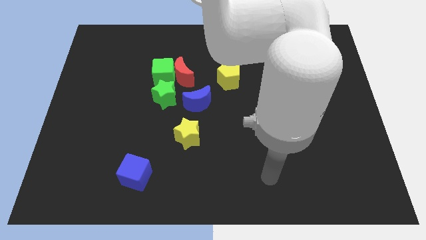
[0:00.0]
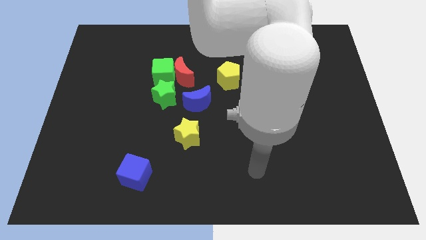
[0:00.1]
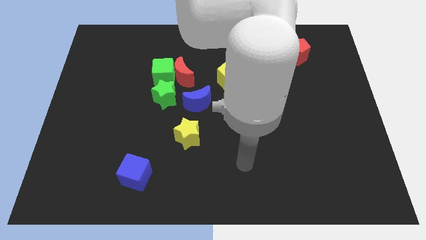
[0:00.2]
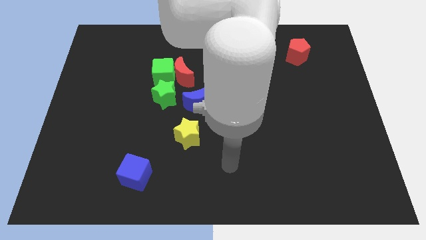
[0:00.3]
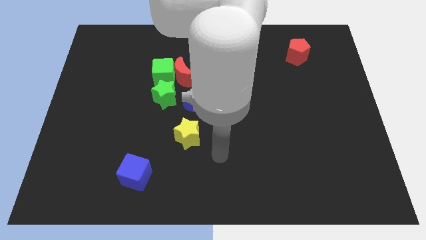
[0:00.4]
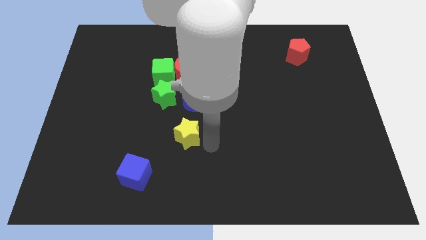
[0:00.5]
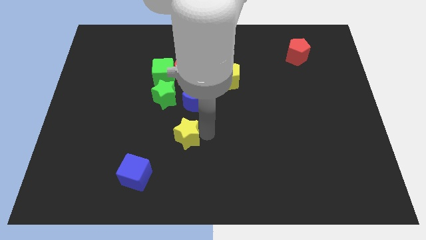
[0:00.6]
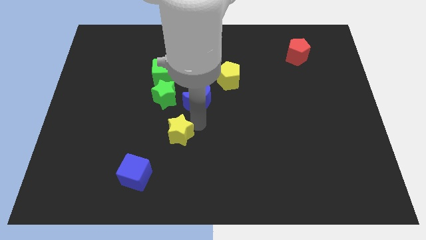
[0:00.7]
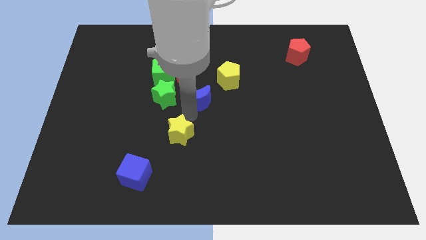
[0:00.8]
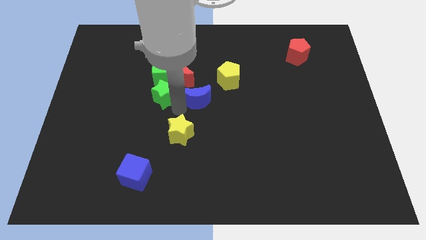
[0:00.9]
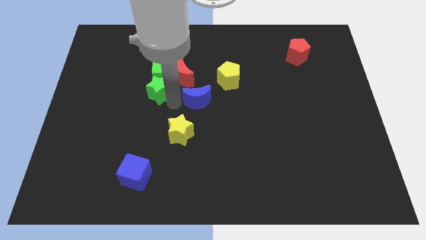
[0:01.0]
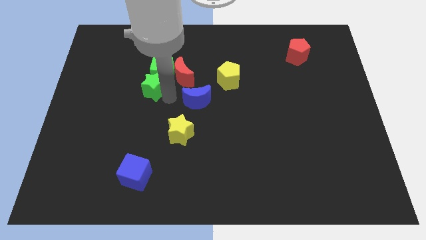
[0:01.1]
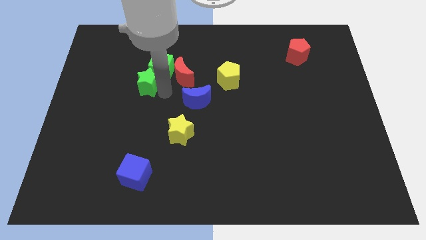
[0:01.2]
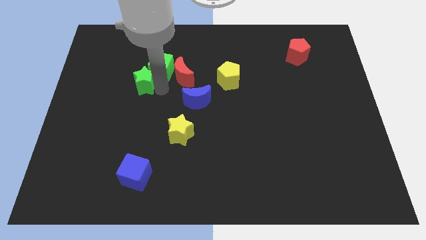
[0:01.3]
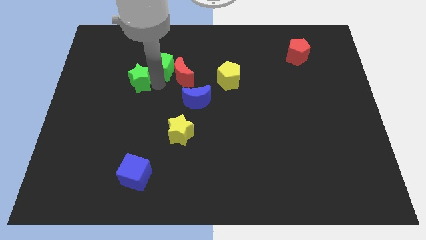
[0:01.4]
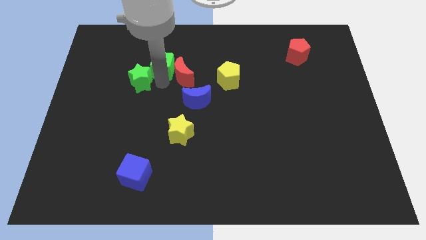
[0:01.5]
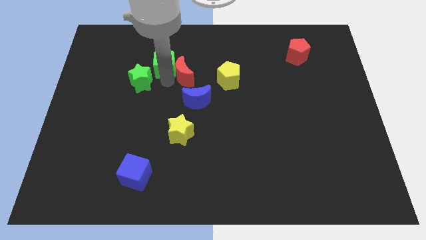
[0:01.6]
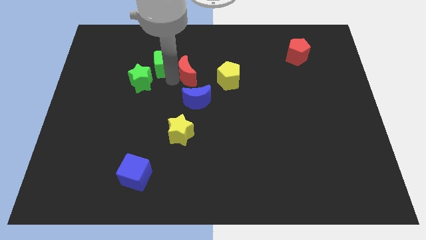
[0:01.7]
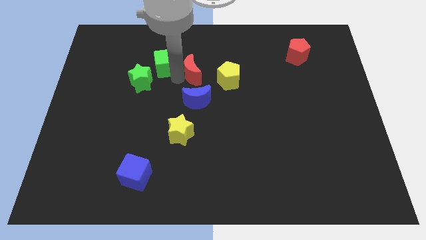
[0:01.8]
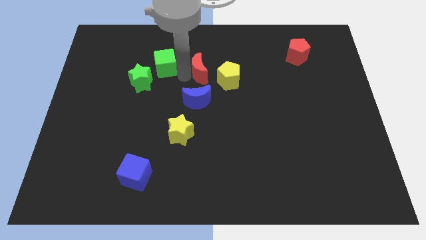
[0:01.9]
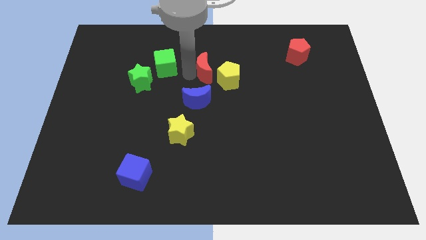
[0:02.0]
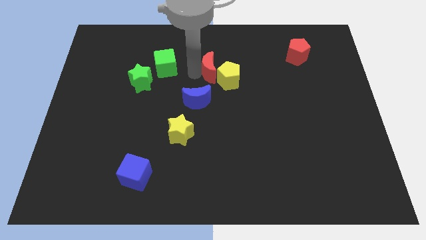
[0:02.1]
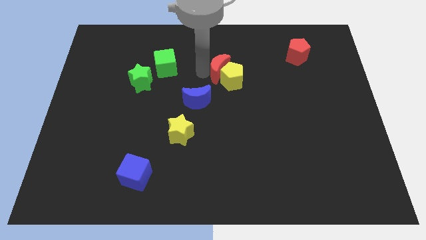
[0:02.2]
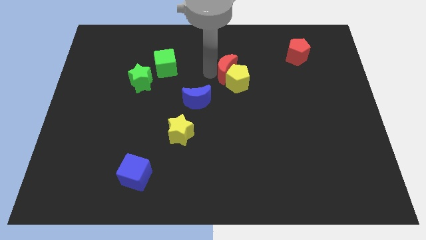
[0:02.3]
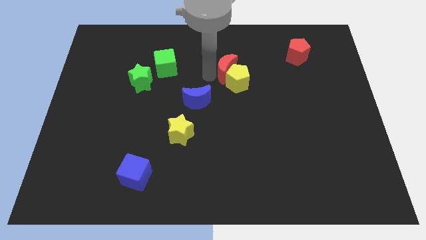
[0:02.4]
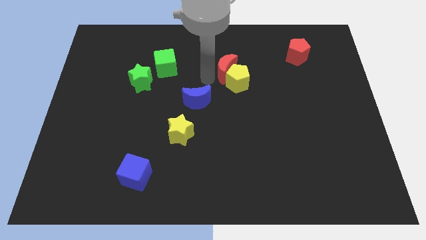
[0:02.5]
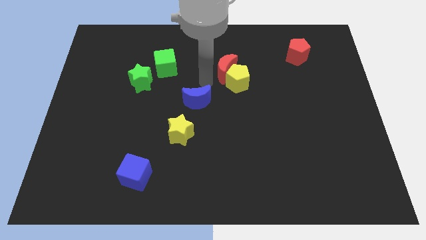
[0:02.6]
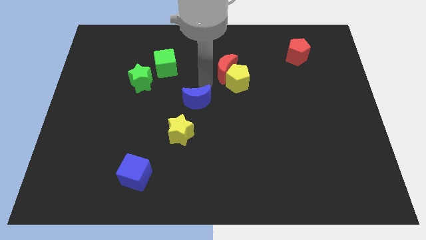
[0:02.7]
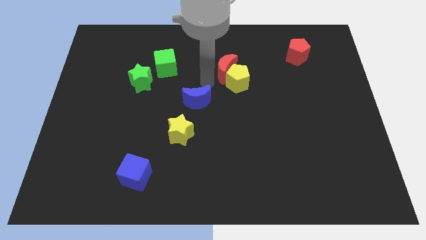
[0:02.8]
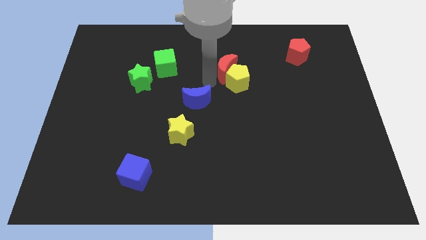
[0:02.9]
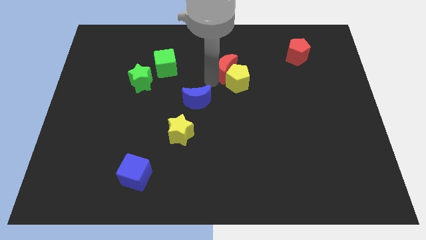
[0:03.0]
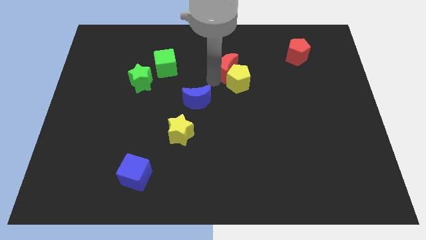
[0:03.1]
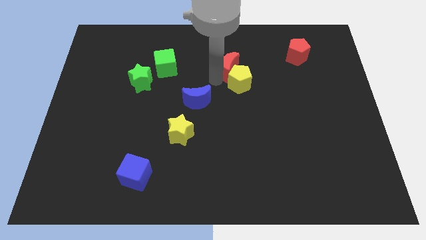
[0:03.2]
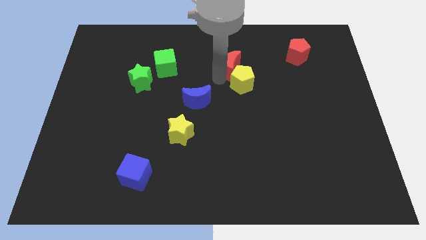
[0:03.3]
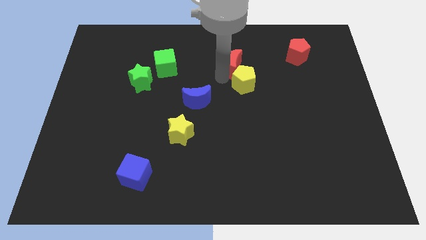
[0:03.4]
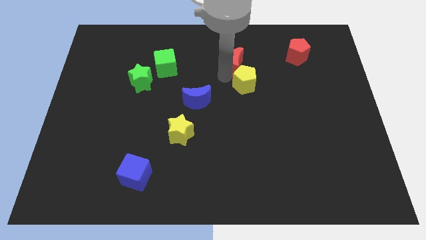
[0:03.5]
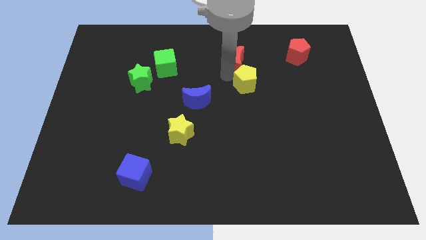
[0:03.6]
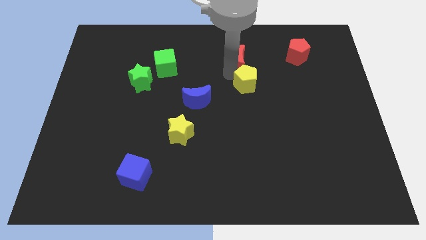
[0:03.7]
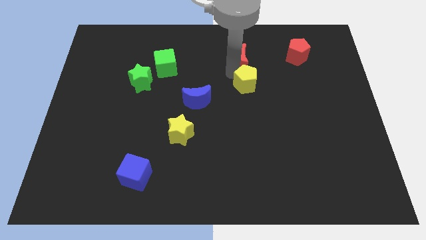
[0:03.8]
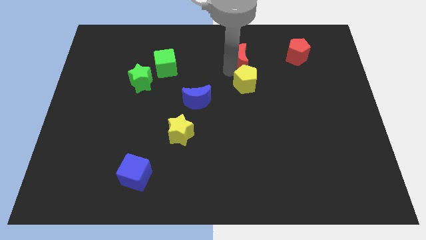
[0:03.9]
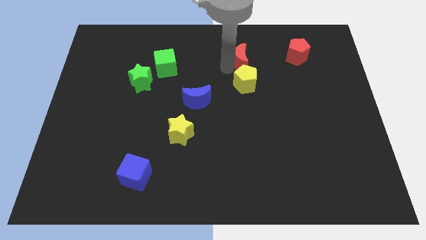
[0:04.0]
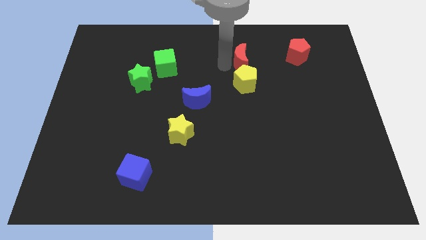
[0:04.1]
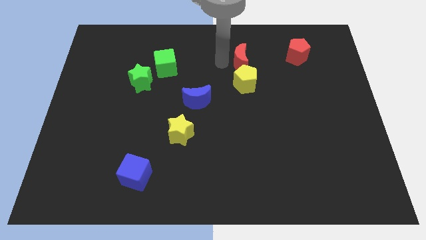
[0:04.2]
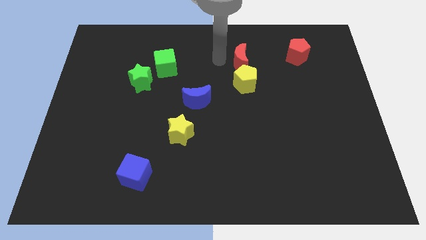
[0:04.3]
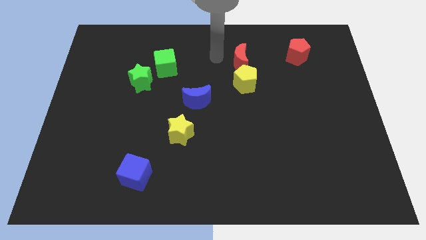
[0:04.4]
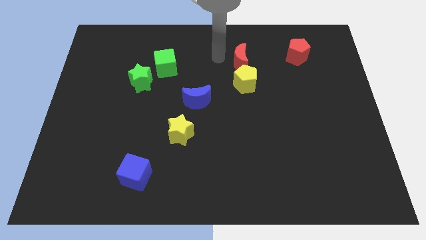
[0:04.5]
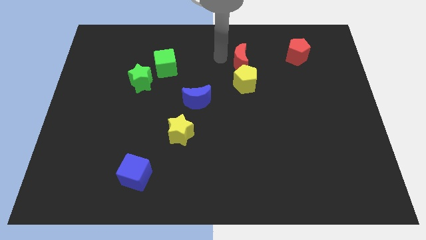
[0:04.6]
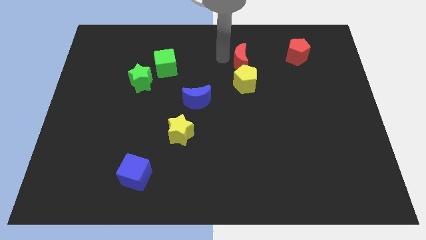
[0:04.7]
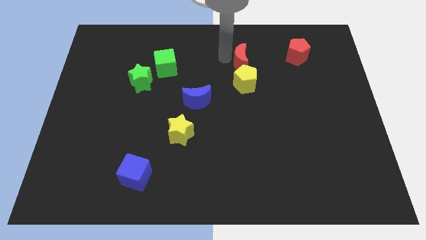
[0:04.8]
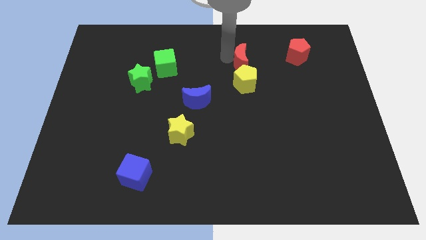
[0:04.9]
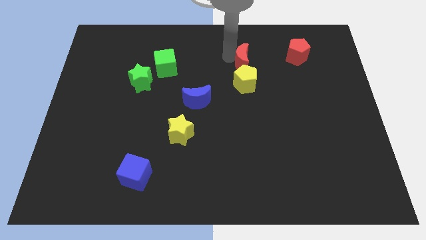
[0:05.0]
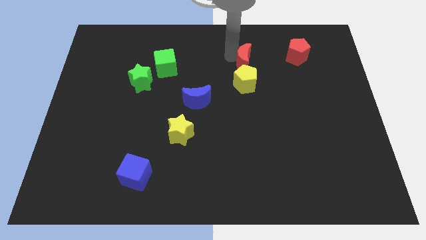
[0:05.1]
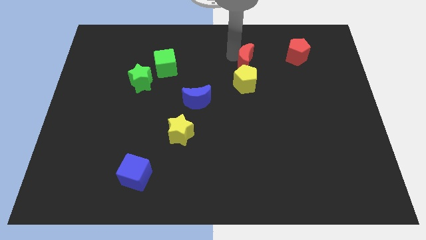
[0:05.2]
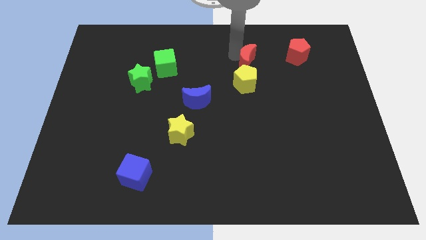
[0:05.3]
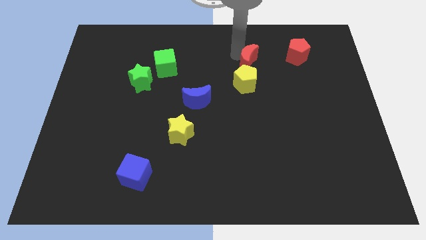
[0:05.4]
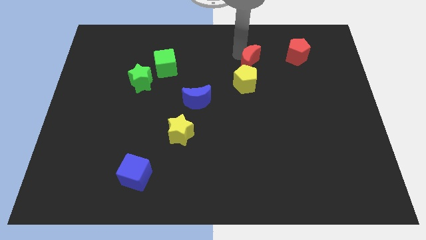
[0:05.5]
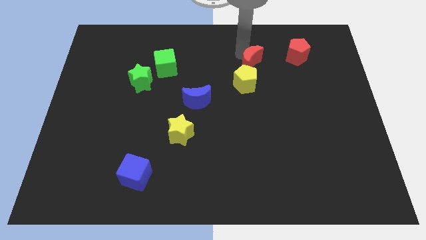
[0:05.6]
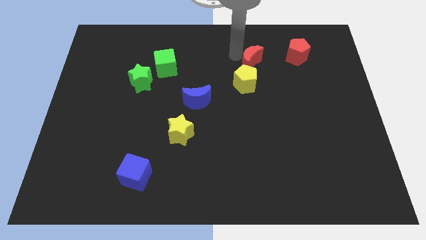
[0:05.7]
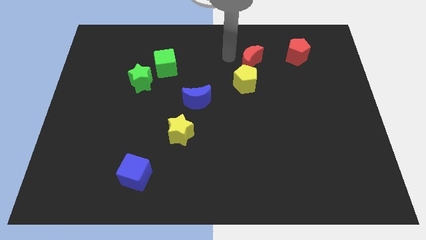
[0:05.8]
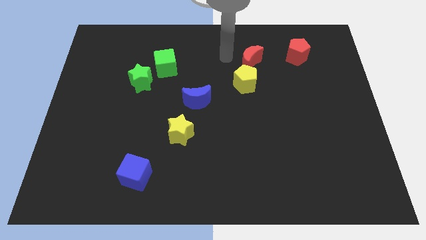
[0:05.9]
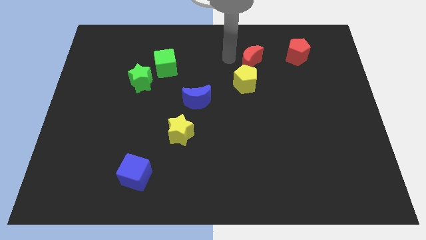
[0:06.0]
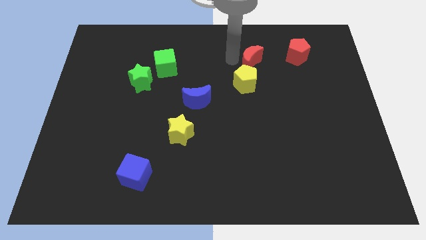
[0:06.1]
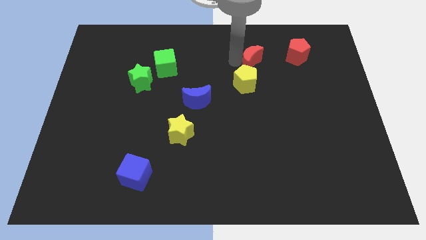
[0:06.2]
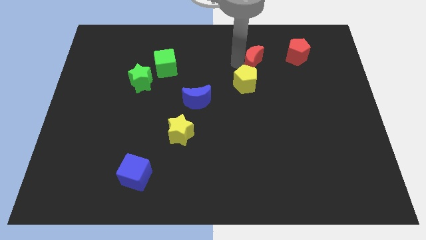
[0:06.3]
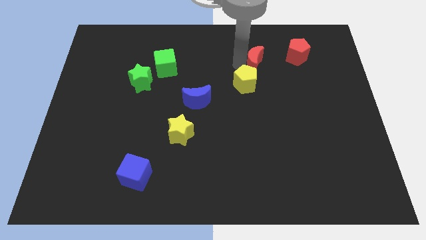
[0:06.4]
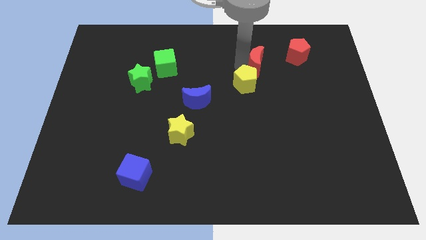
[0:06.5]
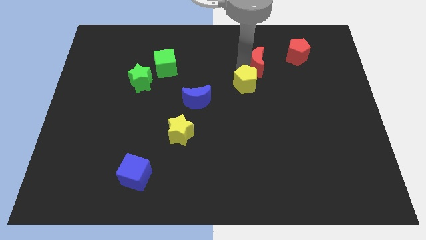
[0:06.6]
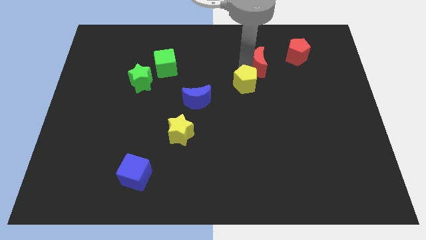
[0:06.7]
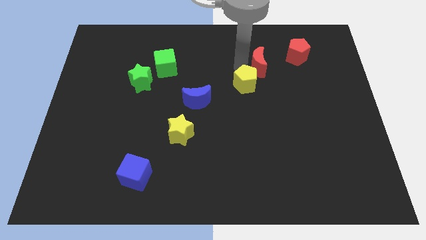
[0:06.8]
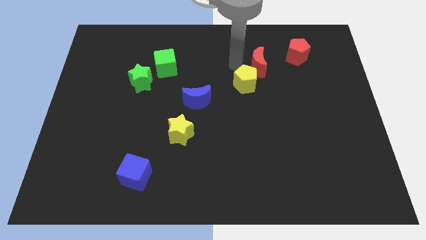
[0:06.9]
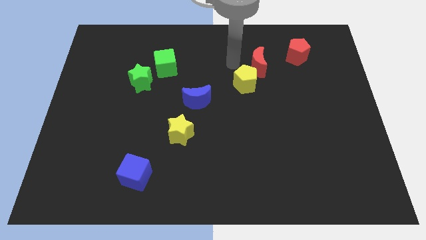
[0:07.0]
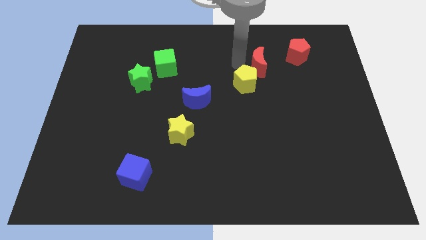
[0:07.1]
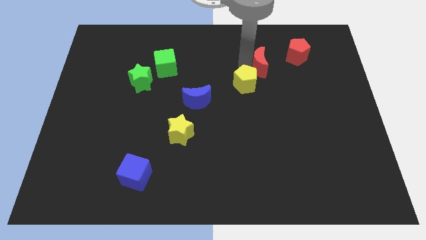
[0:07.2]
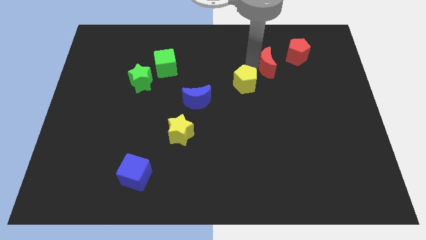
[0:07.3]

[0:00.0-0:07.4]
slide the red moon to the right

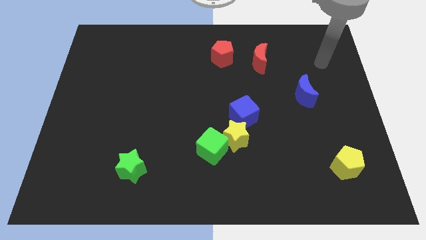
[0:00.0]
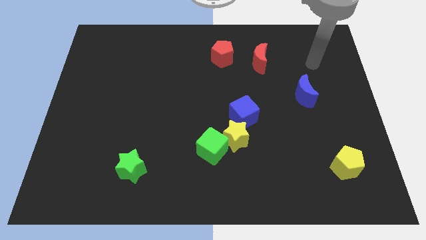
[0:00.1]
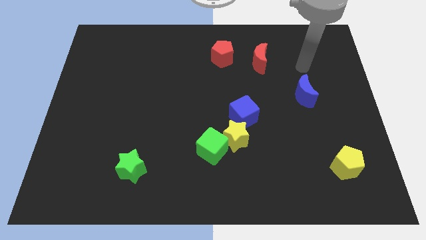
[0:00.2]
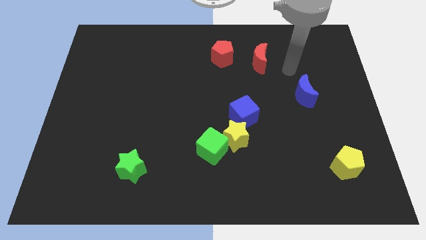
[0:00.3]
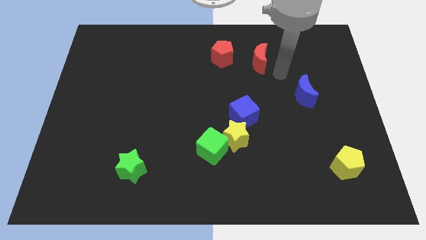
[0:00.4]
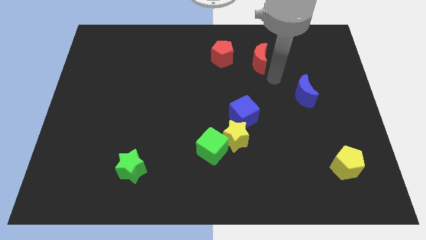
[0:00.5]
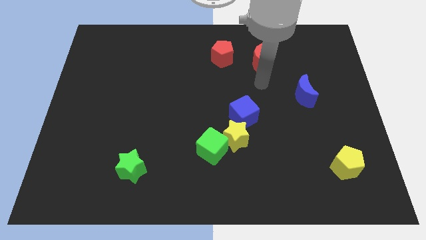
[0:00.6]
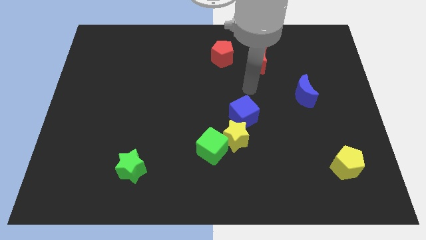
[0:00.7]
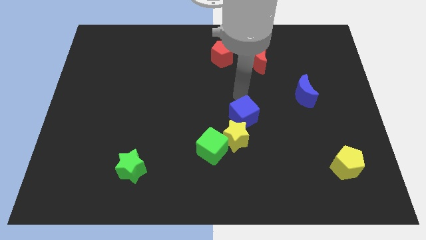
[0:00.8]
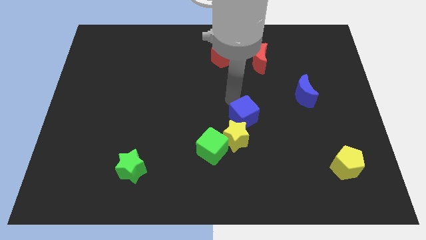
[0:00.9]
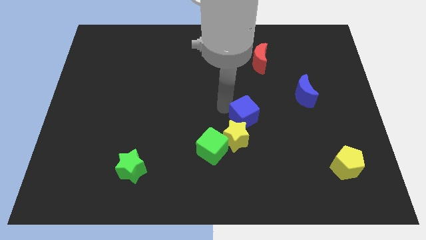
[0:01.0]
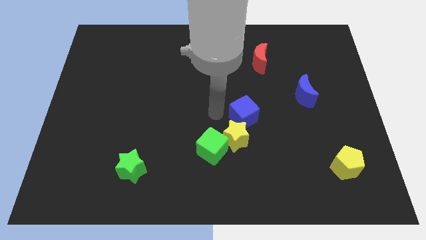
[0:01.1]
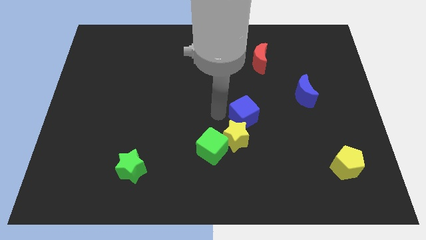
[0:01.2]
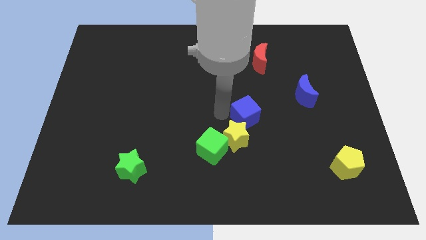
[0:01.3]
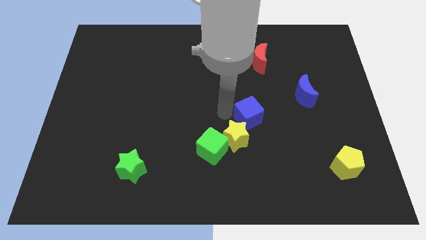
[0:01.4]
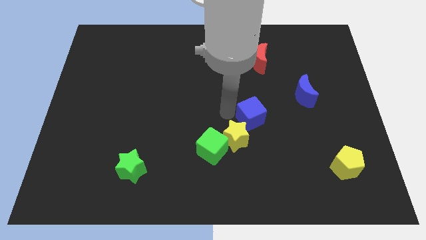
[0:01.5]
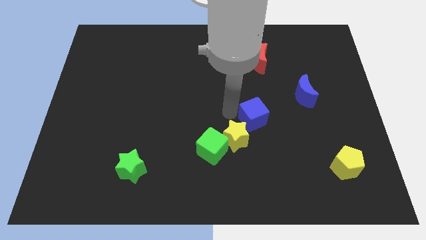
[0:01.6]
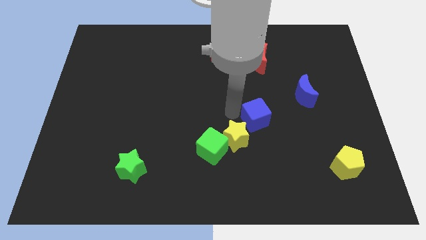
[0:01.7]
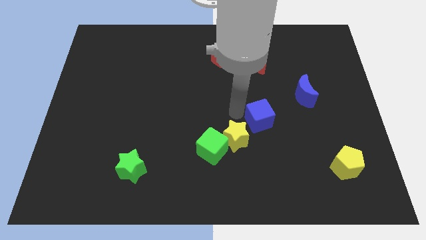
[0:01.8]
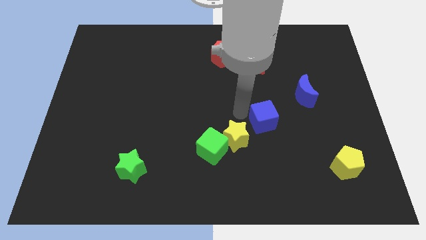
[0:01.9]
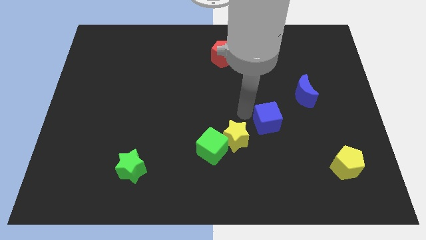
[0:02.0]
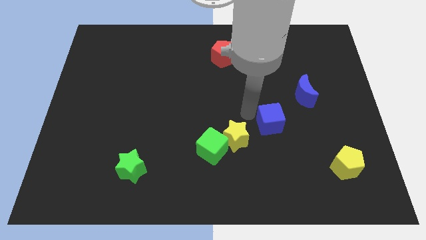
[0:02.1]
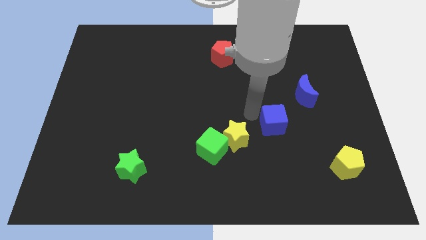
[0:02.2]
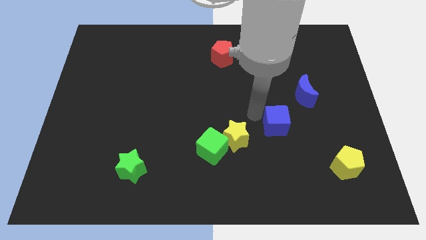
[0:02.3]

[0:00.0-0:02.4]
move the blue cube right a little
